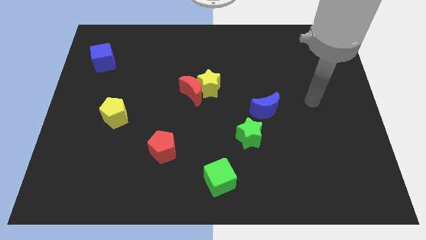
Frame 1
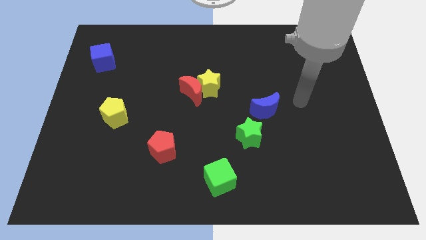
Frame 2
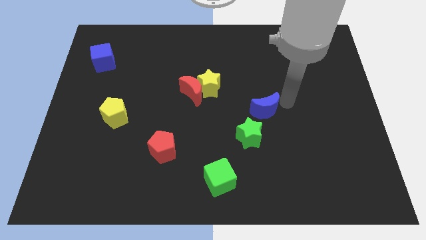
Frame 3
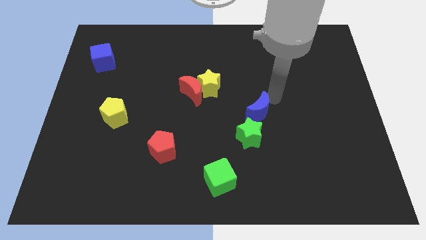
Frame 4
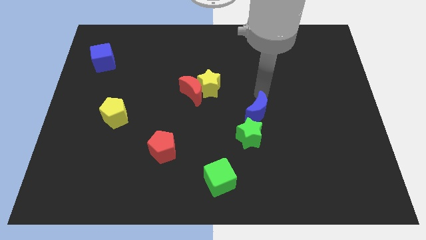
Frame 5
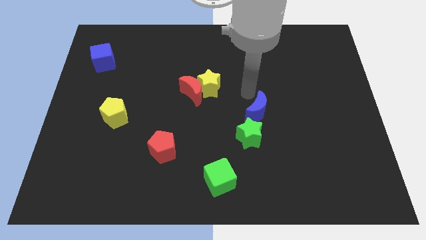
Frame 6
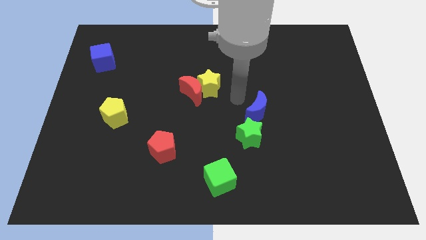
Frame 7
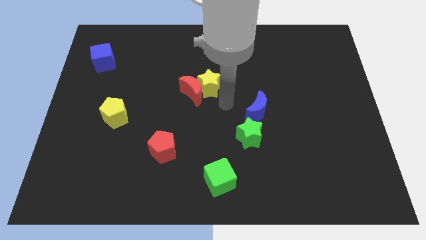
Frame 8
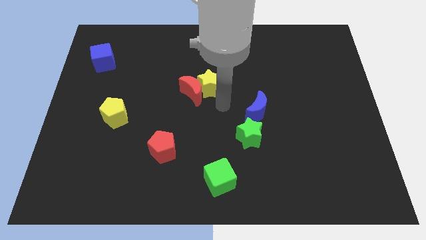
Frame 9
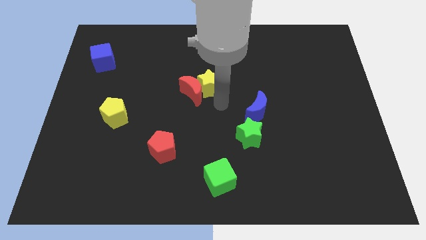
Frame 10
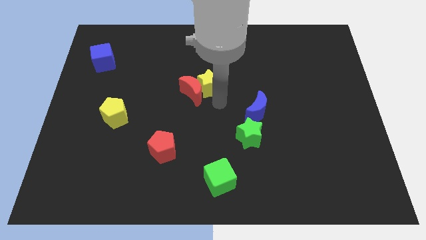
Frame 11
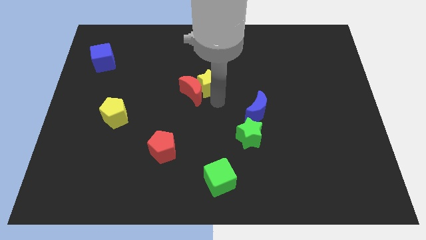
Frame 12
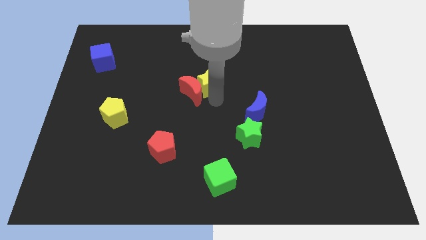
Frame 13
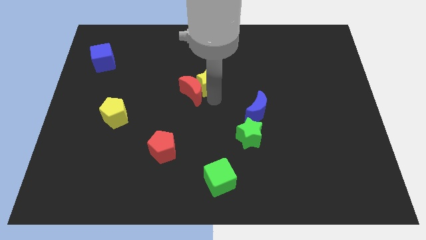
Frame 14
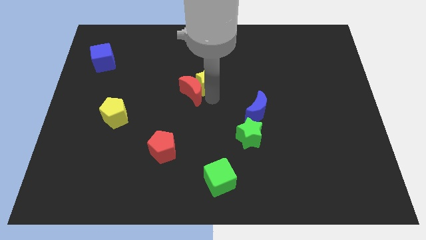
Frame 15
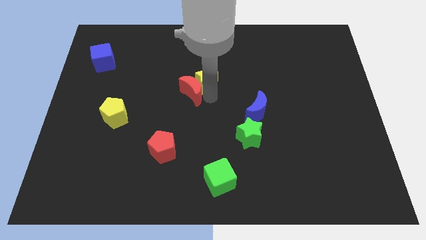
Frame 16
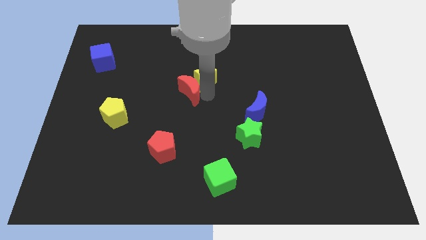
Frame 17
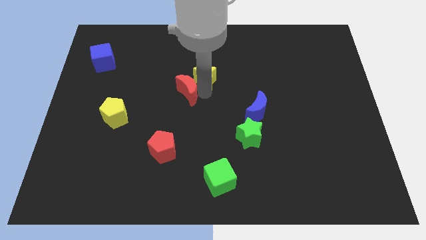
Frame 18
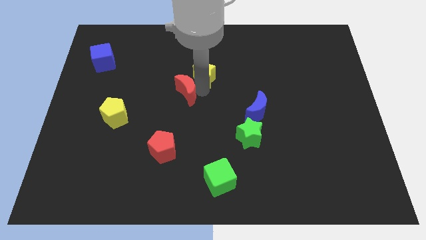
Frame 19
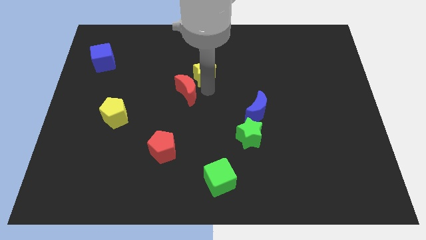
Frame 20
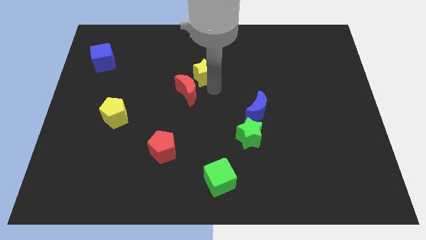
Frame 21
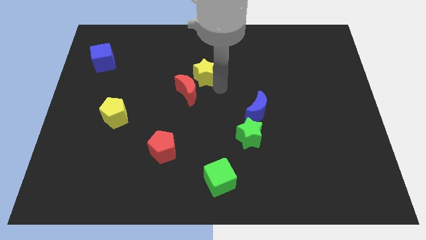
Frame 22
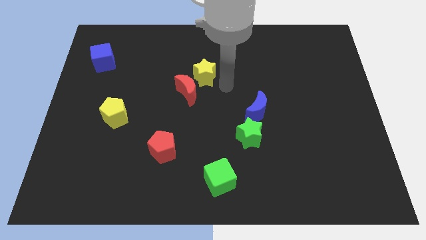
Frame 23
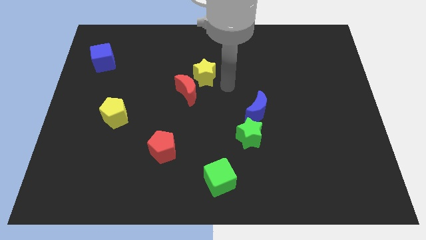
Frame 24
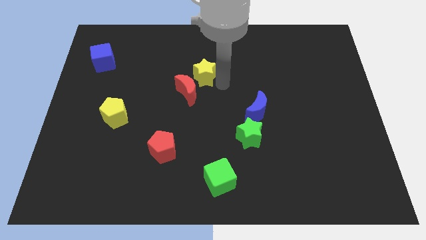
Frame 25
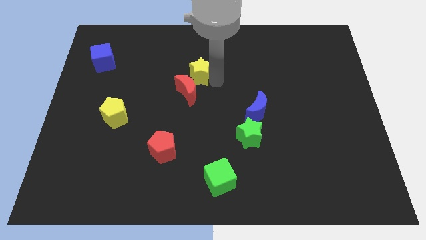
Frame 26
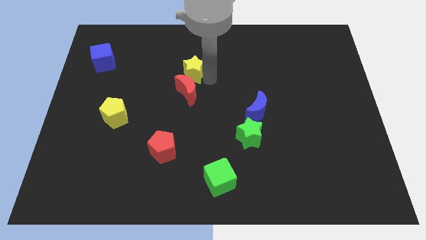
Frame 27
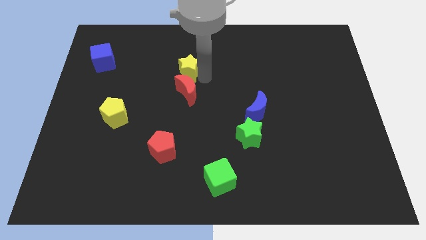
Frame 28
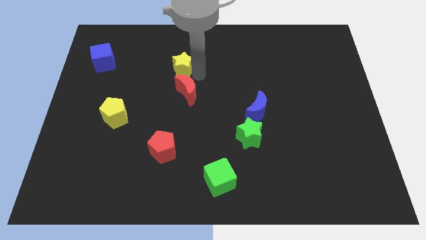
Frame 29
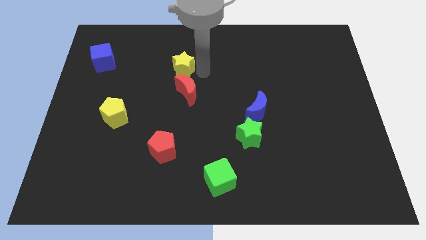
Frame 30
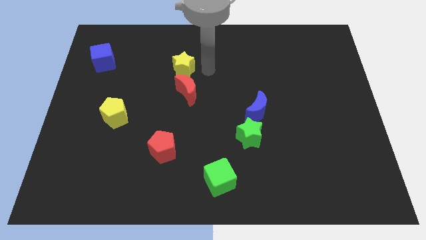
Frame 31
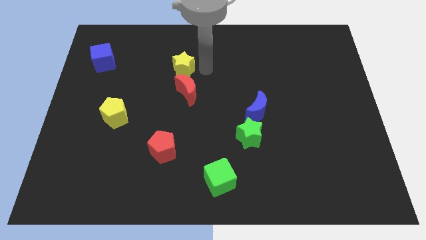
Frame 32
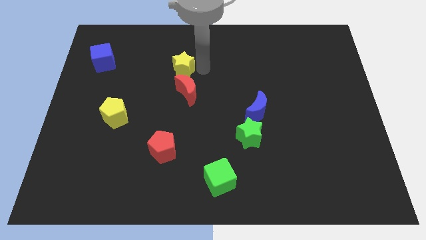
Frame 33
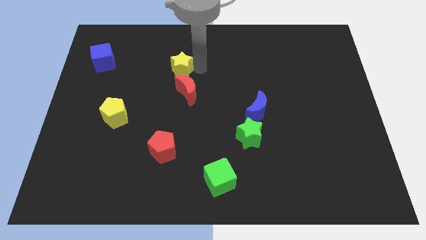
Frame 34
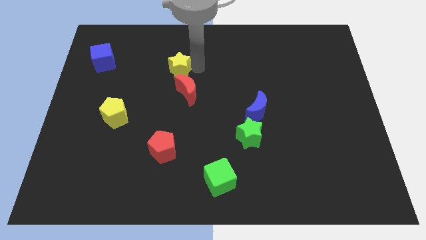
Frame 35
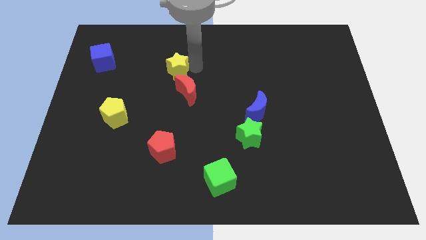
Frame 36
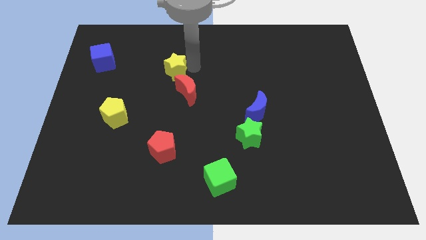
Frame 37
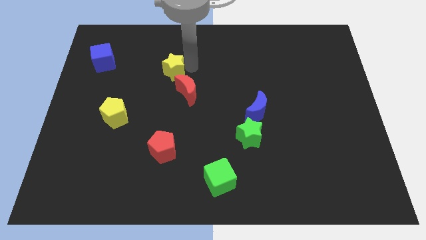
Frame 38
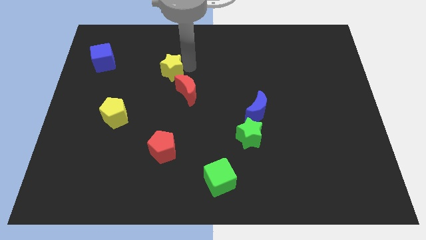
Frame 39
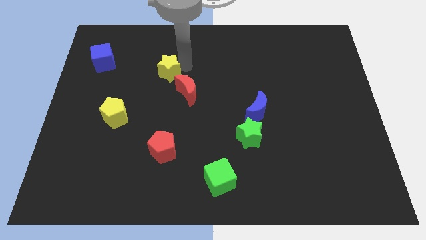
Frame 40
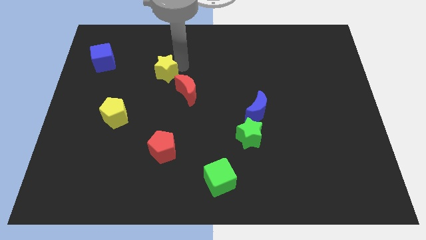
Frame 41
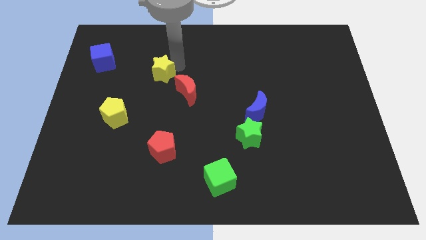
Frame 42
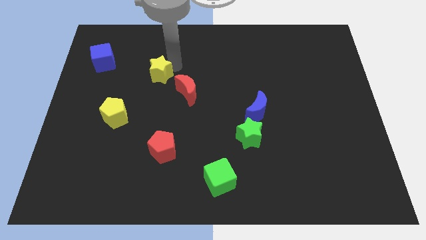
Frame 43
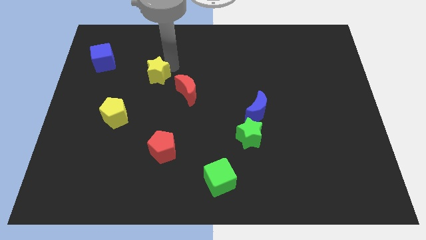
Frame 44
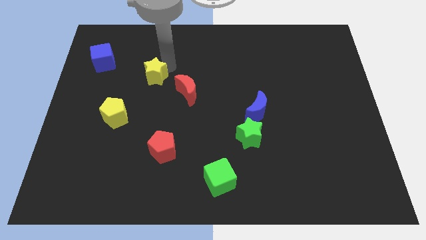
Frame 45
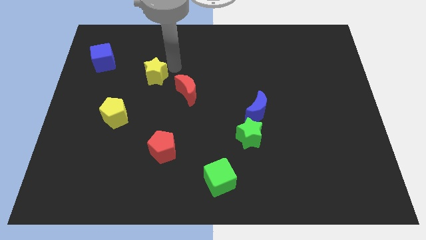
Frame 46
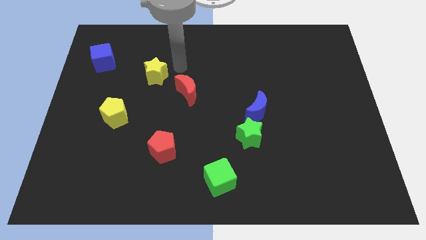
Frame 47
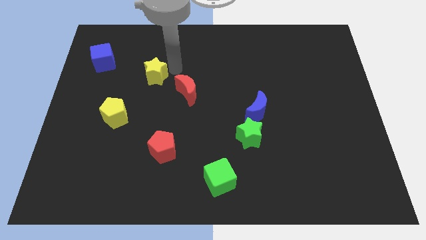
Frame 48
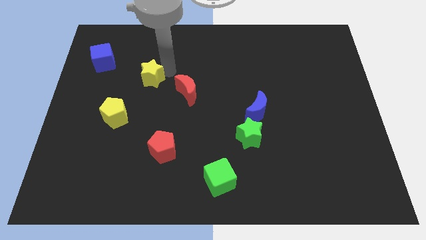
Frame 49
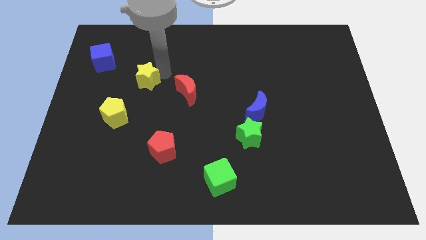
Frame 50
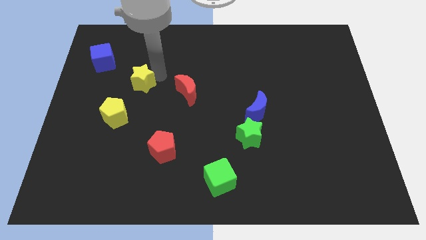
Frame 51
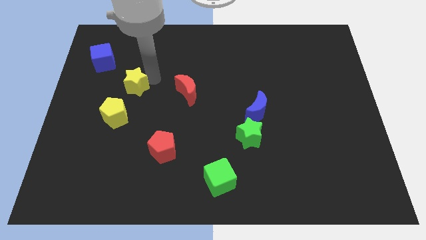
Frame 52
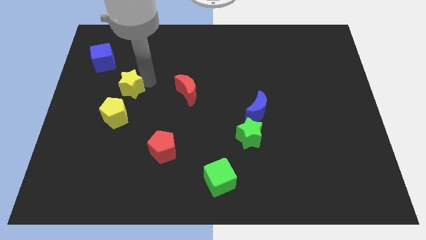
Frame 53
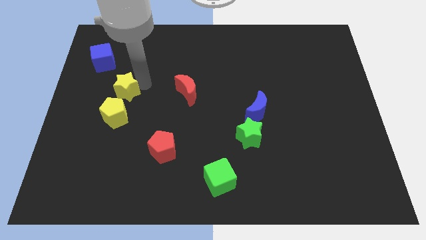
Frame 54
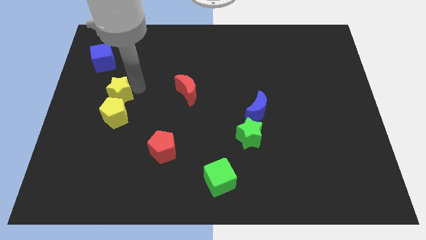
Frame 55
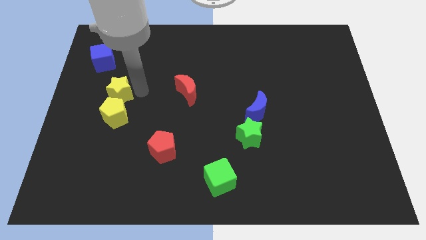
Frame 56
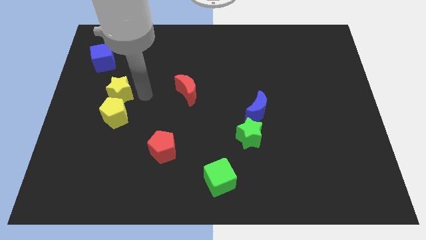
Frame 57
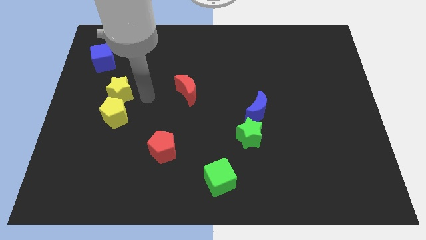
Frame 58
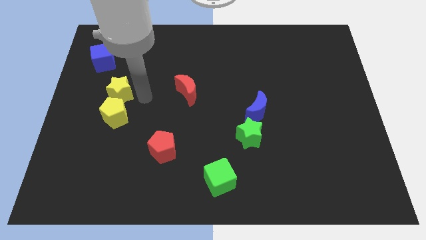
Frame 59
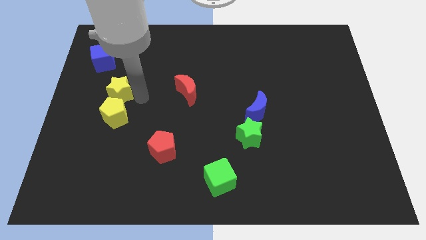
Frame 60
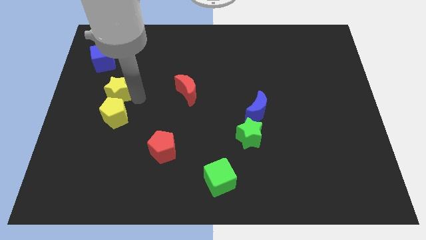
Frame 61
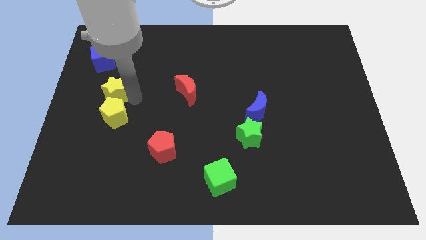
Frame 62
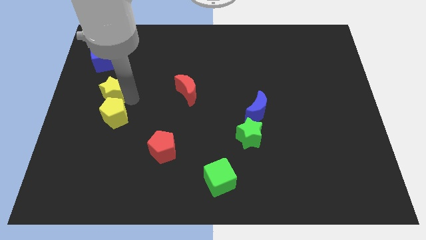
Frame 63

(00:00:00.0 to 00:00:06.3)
put the yellow star to the bottom side of the blue cube

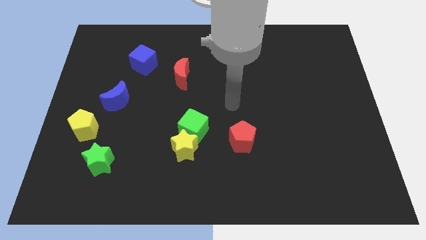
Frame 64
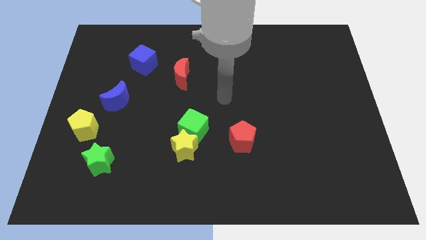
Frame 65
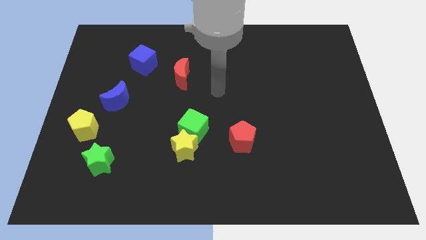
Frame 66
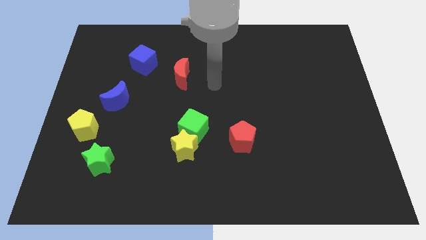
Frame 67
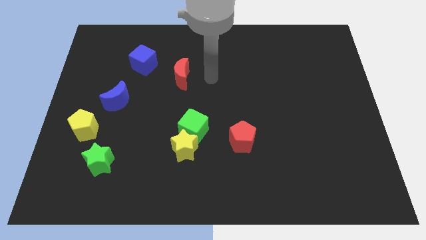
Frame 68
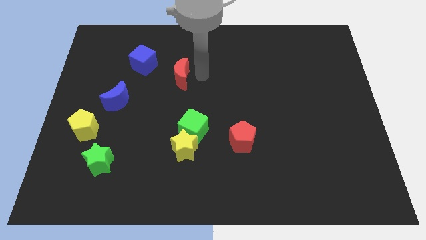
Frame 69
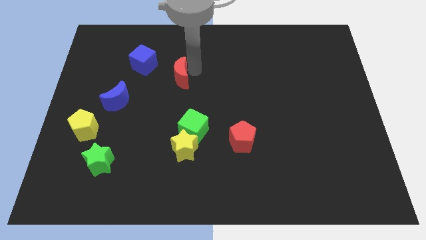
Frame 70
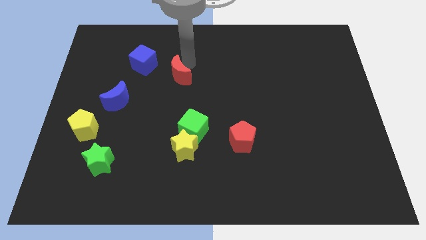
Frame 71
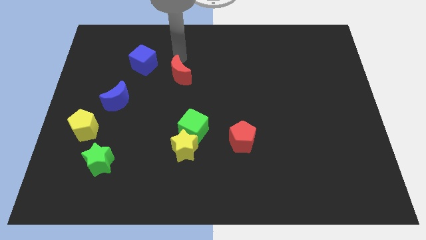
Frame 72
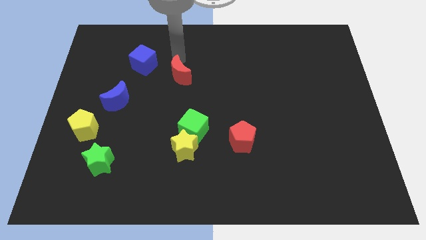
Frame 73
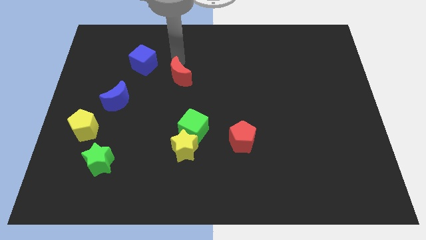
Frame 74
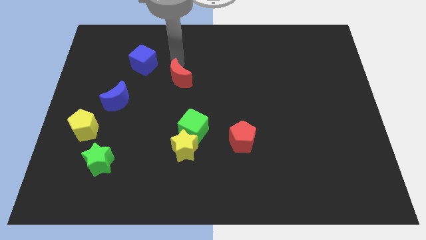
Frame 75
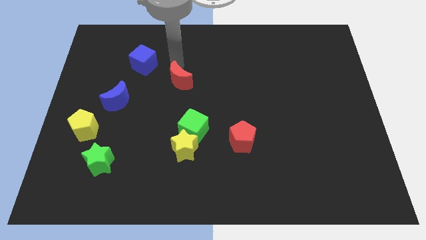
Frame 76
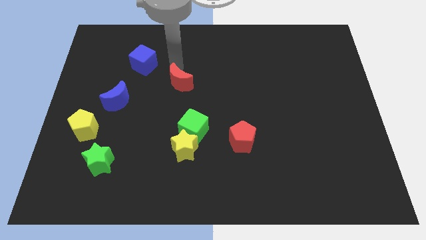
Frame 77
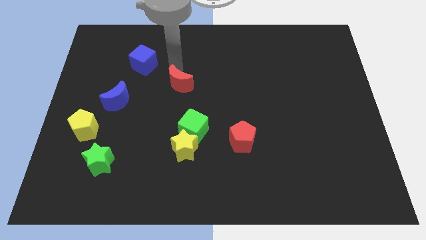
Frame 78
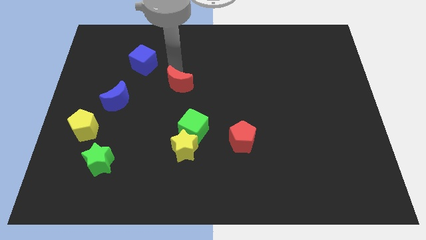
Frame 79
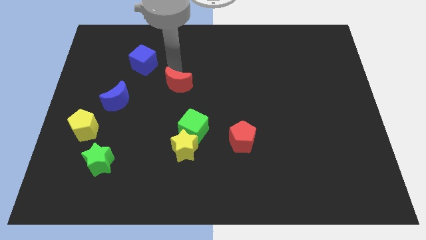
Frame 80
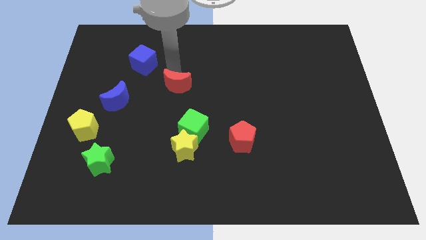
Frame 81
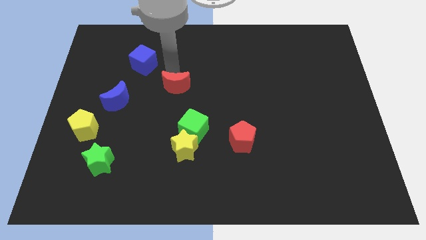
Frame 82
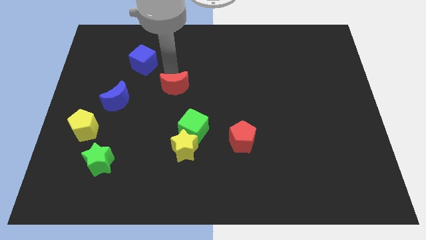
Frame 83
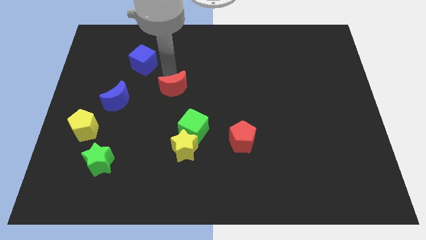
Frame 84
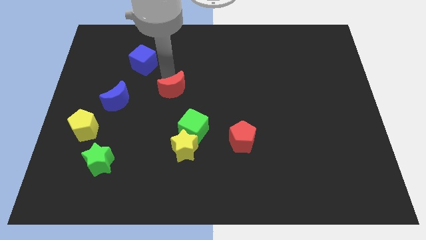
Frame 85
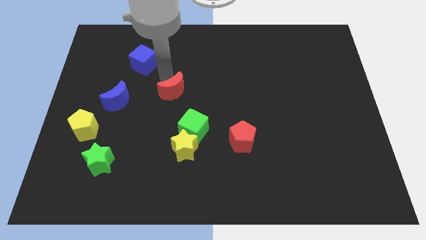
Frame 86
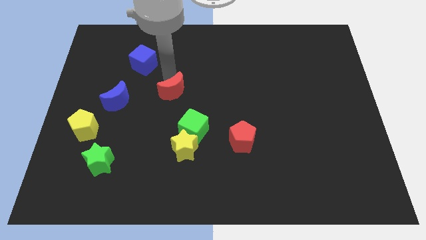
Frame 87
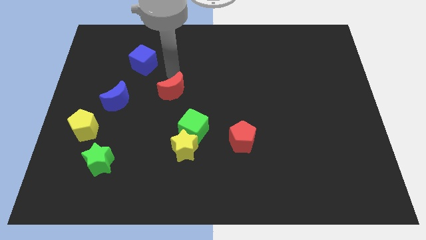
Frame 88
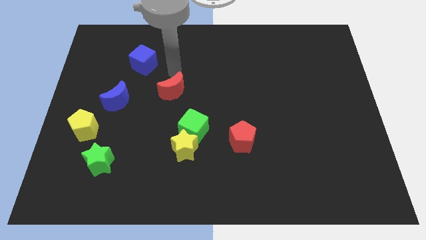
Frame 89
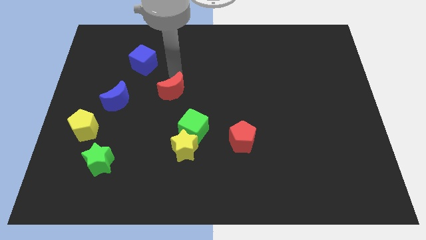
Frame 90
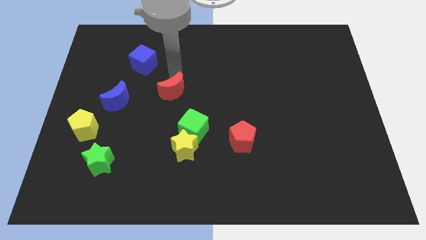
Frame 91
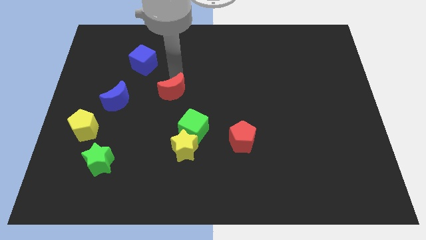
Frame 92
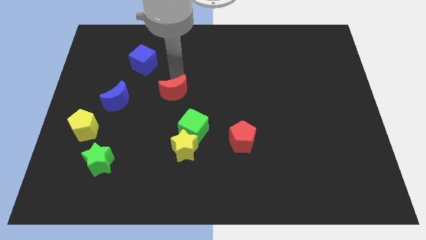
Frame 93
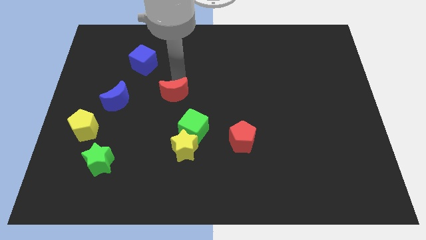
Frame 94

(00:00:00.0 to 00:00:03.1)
put the red moon to the top left side of the green cube
